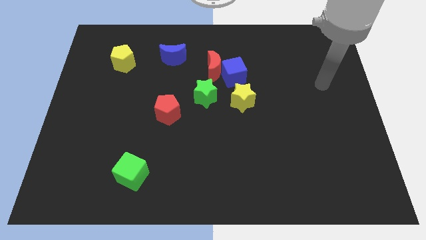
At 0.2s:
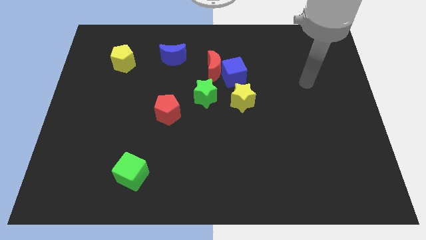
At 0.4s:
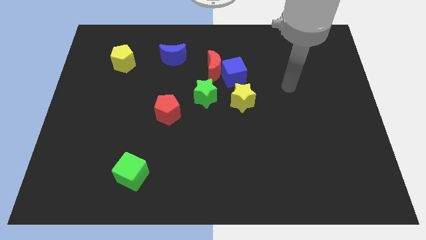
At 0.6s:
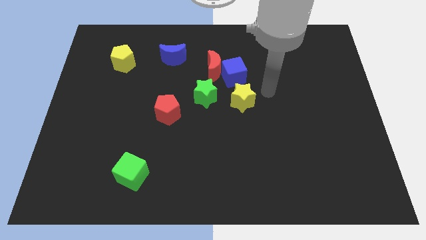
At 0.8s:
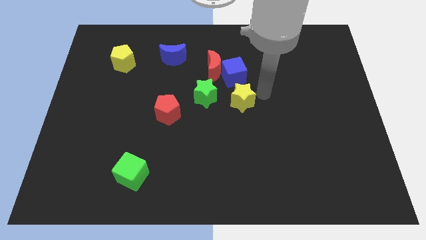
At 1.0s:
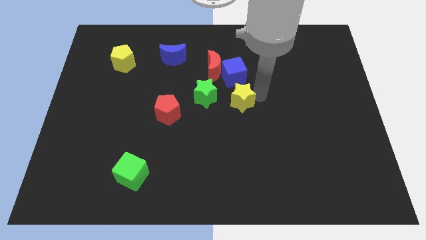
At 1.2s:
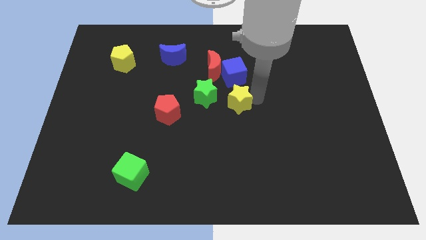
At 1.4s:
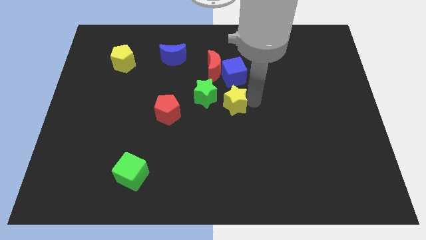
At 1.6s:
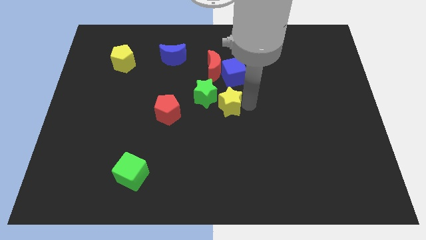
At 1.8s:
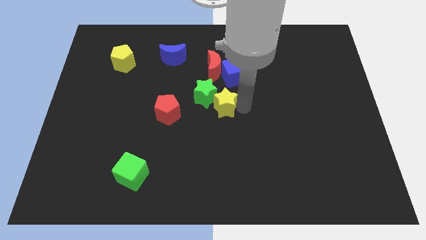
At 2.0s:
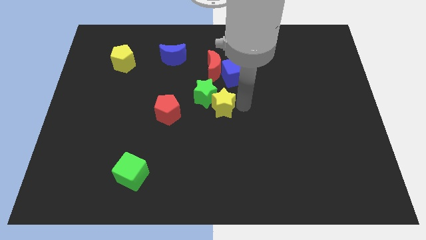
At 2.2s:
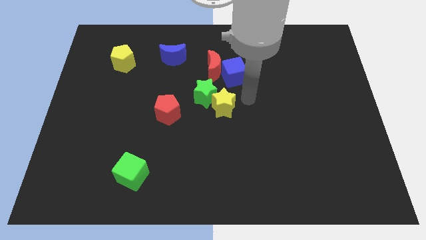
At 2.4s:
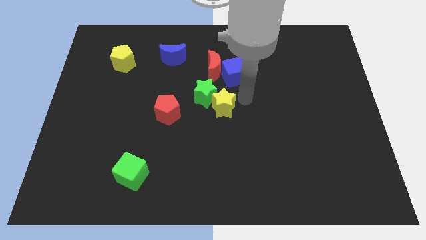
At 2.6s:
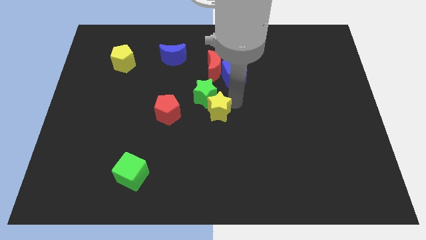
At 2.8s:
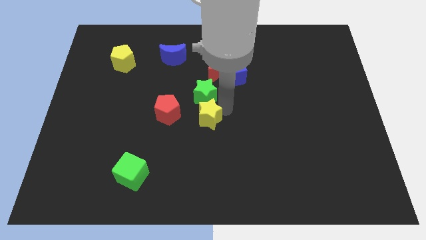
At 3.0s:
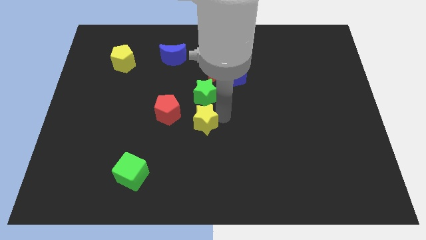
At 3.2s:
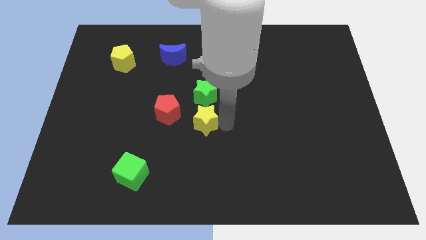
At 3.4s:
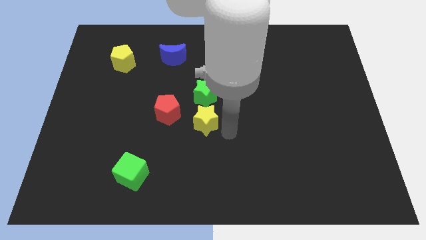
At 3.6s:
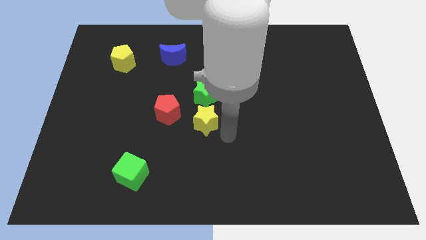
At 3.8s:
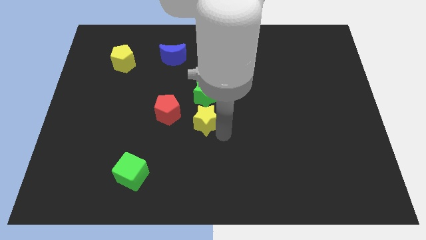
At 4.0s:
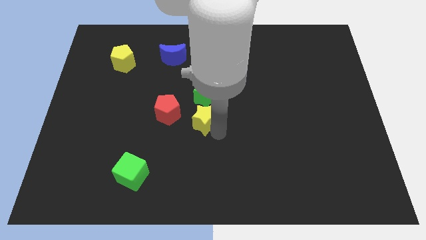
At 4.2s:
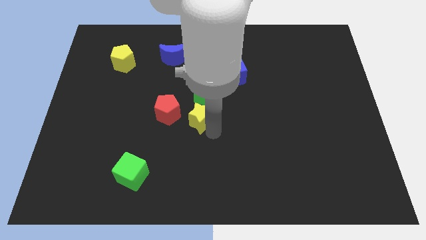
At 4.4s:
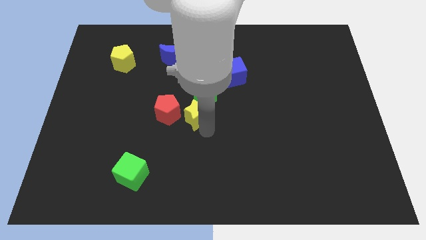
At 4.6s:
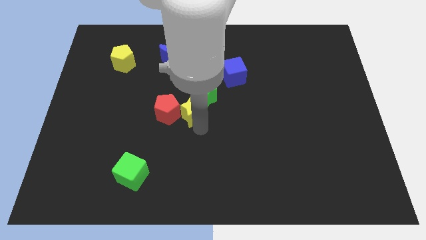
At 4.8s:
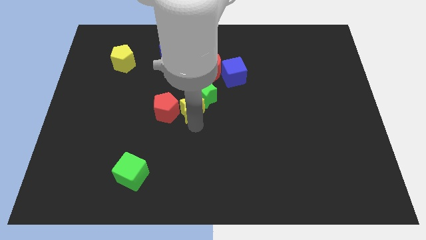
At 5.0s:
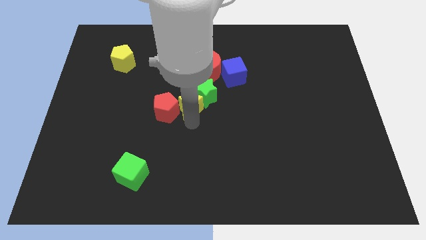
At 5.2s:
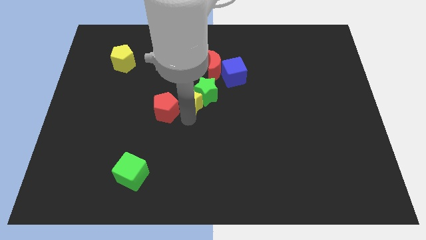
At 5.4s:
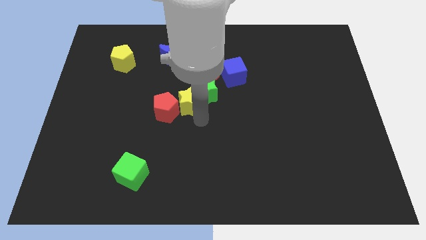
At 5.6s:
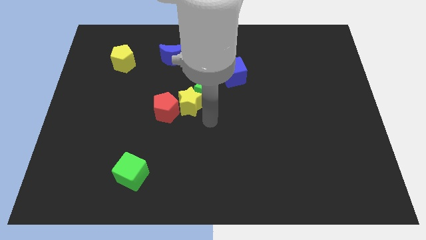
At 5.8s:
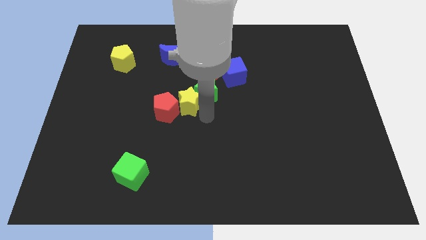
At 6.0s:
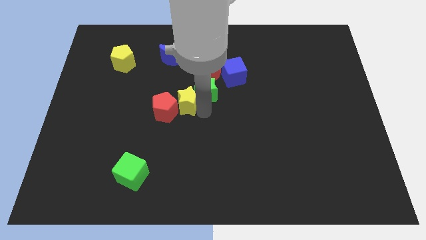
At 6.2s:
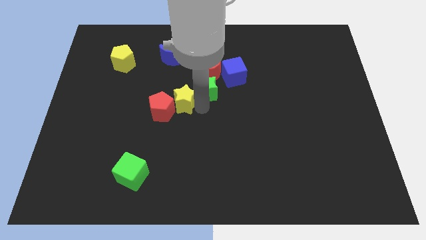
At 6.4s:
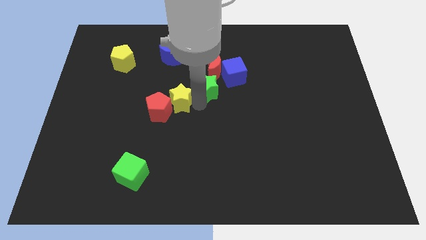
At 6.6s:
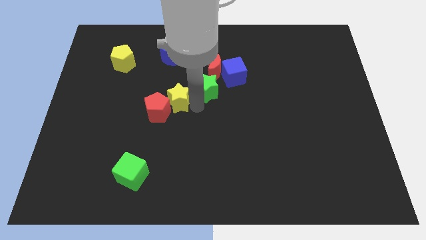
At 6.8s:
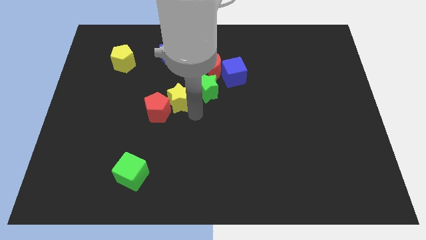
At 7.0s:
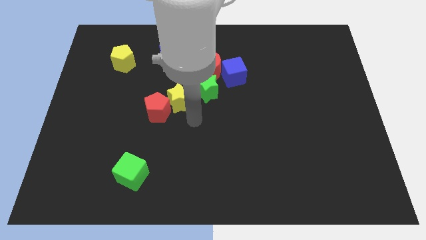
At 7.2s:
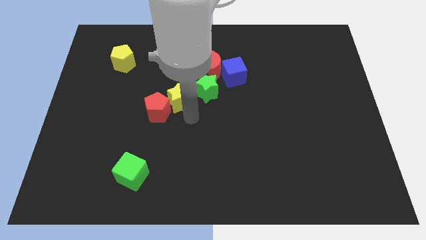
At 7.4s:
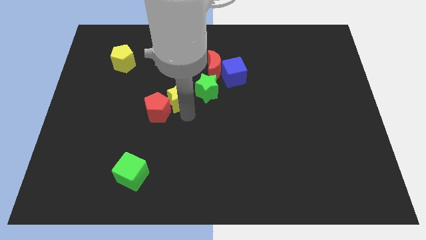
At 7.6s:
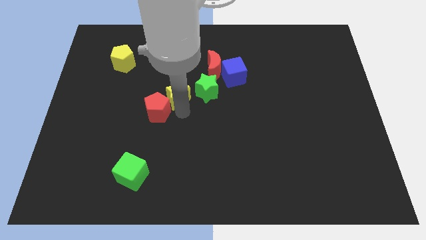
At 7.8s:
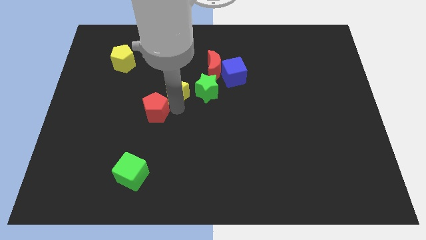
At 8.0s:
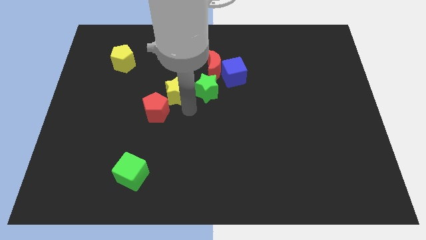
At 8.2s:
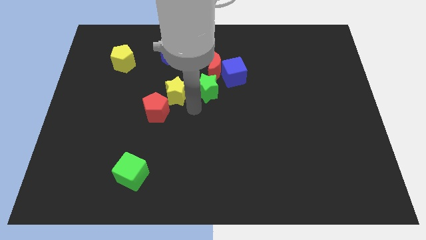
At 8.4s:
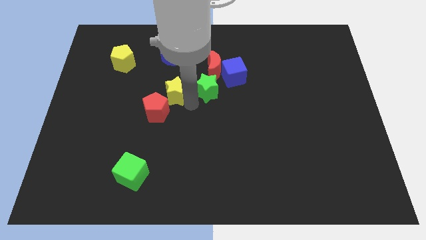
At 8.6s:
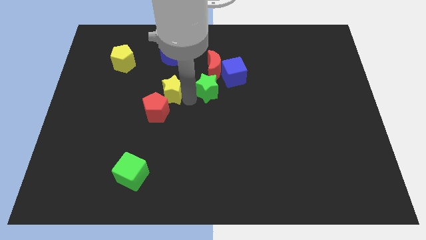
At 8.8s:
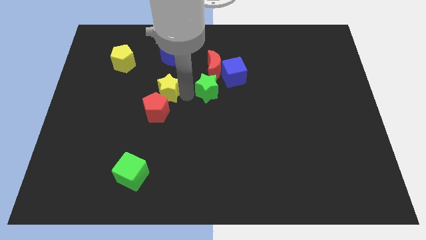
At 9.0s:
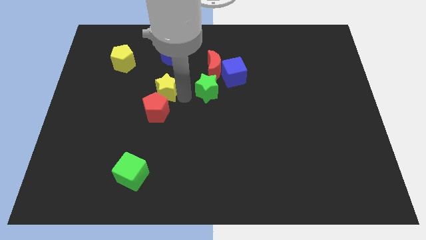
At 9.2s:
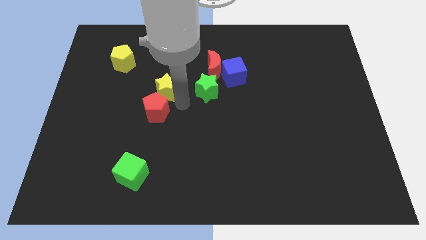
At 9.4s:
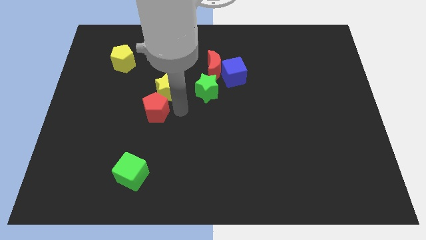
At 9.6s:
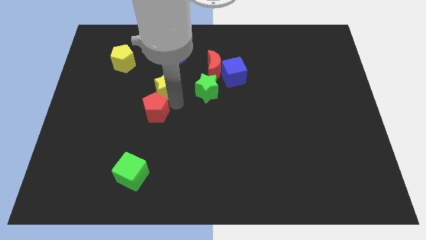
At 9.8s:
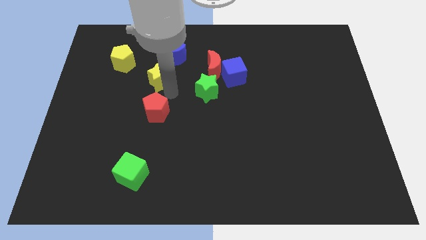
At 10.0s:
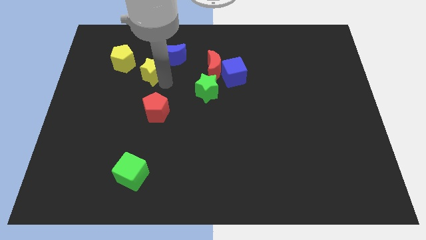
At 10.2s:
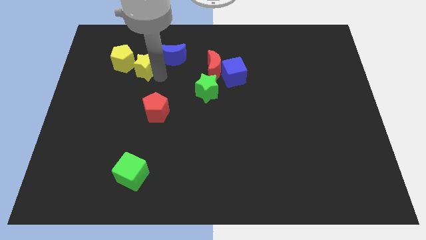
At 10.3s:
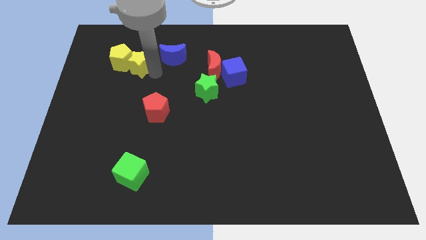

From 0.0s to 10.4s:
slide the yellow star next to the yellow pentagon

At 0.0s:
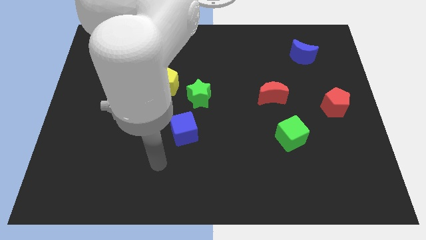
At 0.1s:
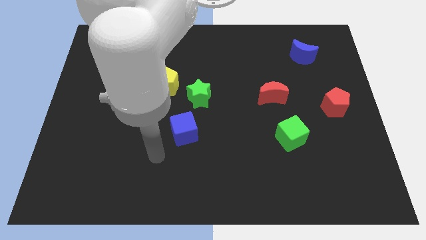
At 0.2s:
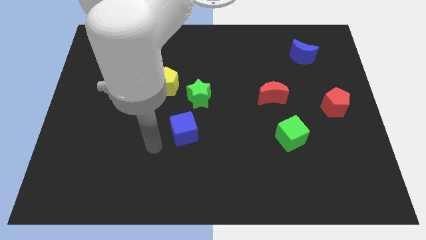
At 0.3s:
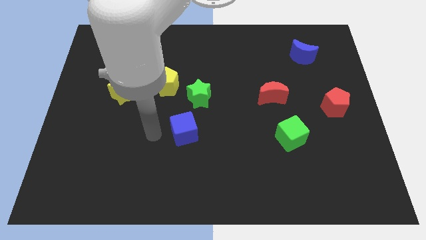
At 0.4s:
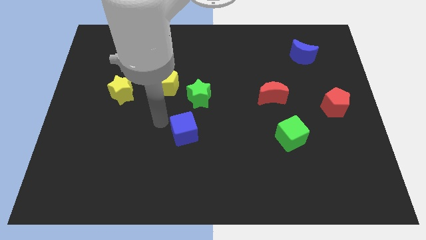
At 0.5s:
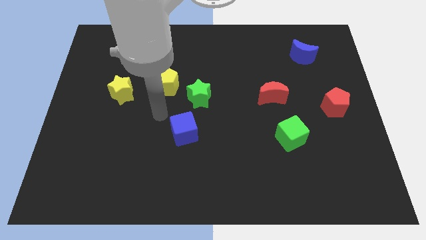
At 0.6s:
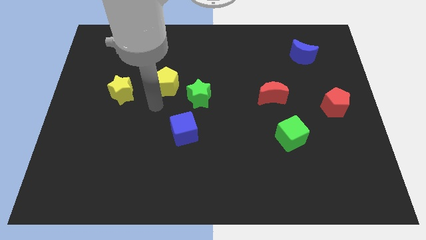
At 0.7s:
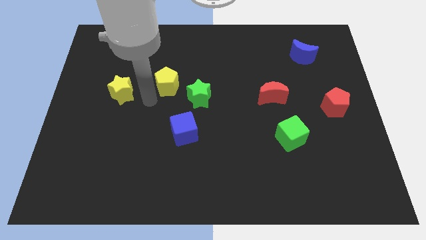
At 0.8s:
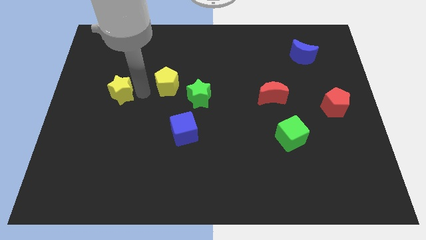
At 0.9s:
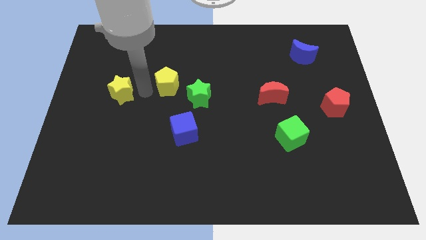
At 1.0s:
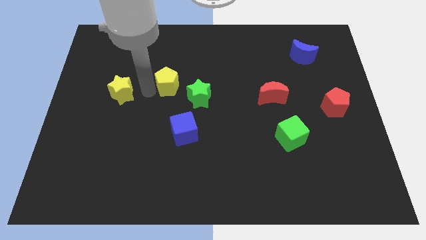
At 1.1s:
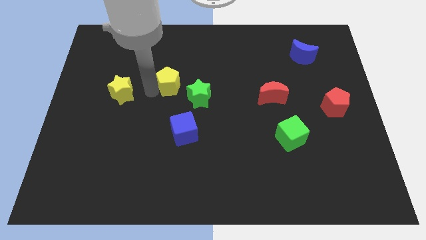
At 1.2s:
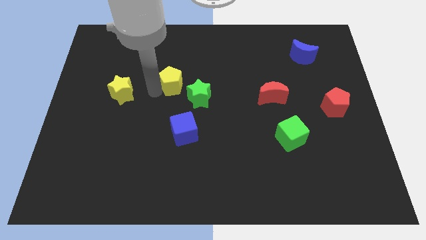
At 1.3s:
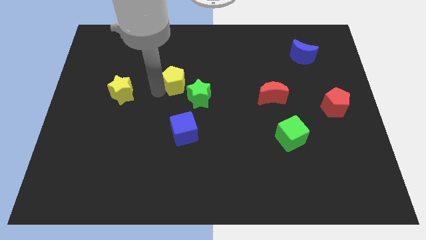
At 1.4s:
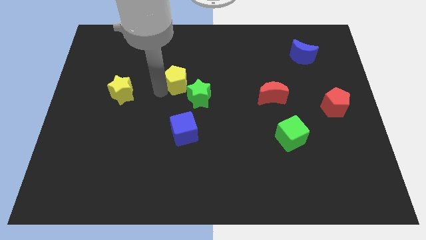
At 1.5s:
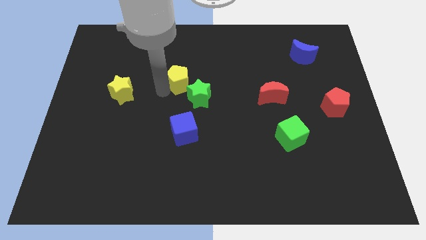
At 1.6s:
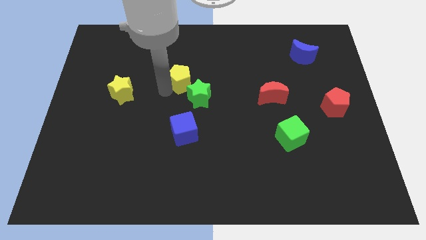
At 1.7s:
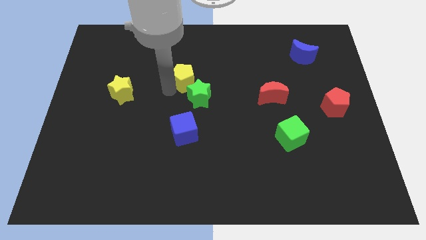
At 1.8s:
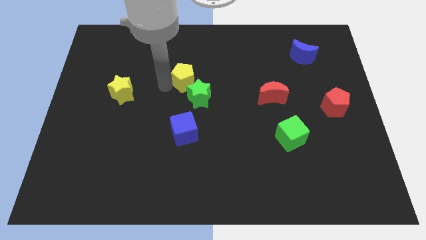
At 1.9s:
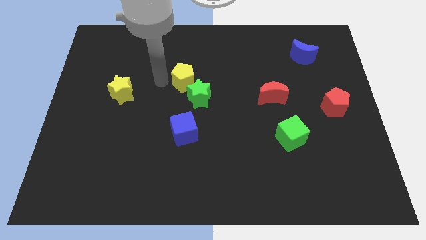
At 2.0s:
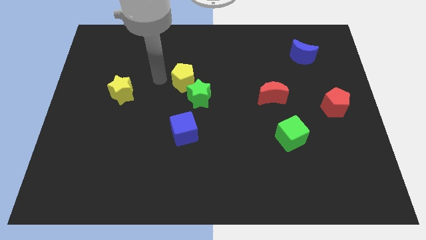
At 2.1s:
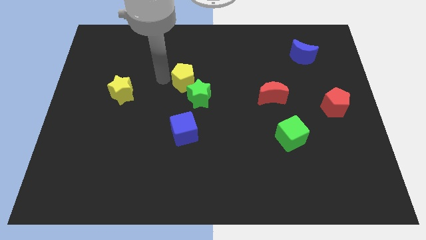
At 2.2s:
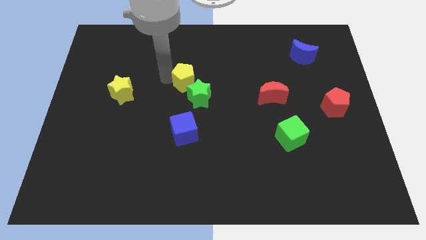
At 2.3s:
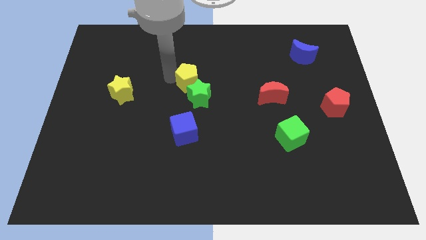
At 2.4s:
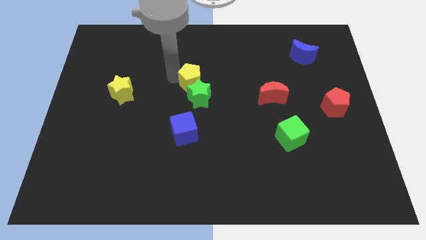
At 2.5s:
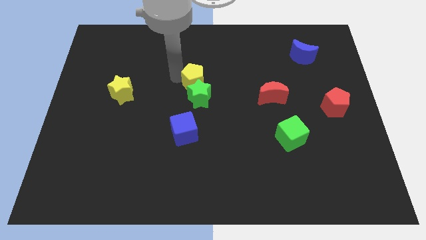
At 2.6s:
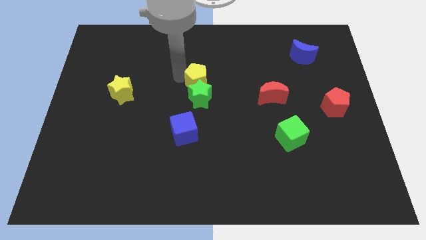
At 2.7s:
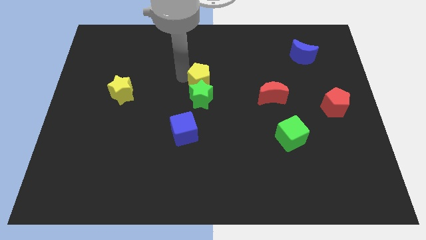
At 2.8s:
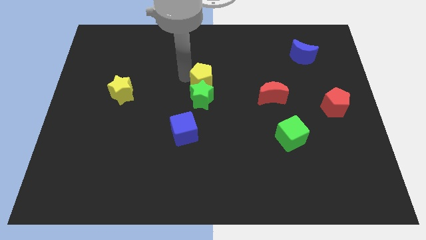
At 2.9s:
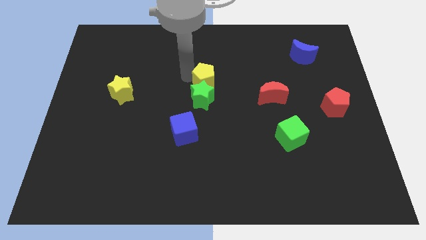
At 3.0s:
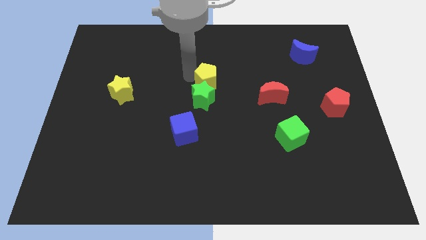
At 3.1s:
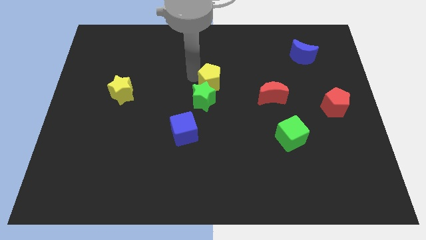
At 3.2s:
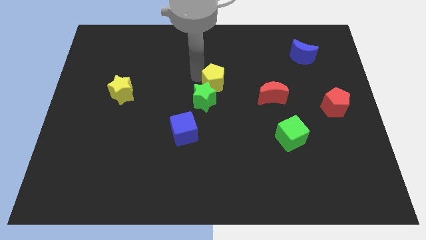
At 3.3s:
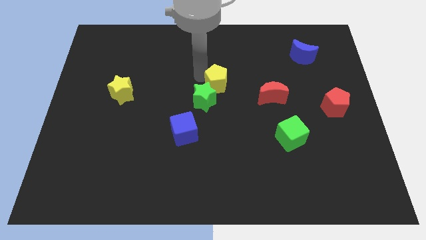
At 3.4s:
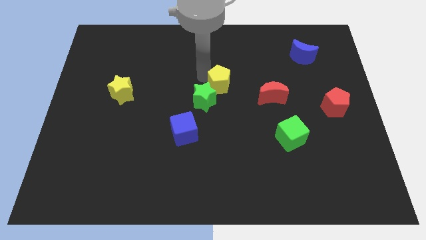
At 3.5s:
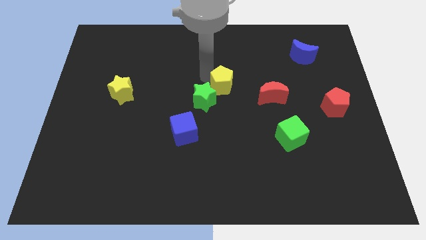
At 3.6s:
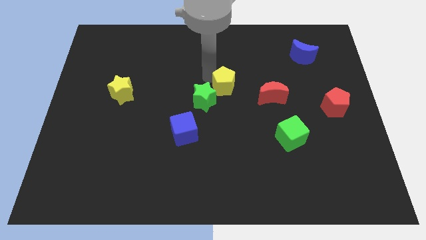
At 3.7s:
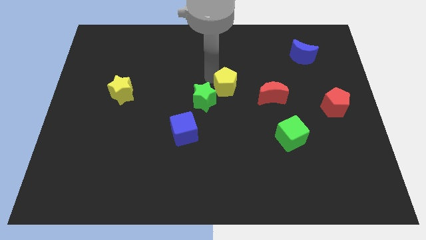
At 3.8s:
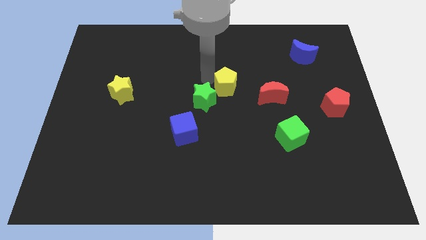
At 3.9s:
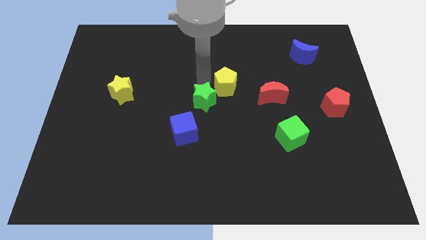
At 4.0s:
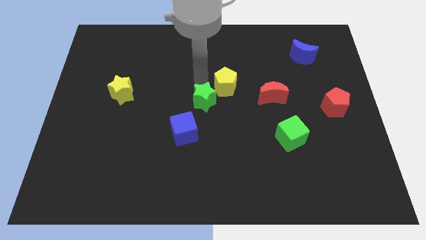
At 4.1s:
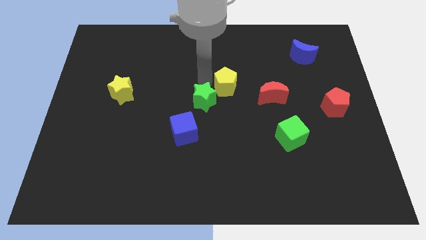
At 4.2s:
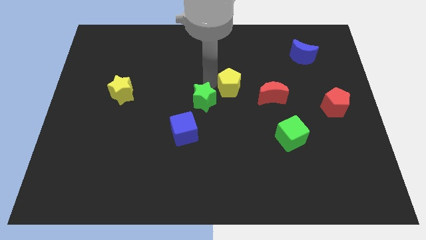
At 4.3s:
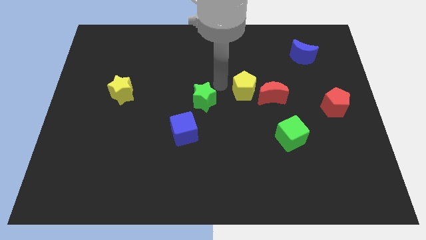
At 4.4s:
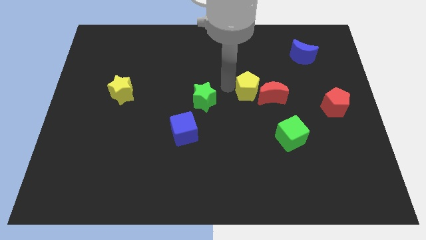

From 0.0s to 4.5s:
put the yellow pentagon towards the red moon
